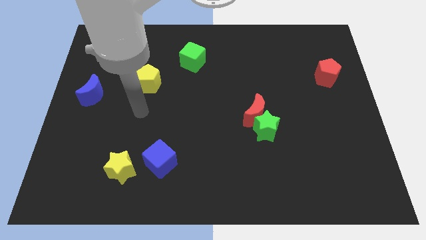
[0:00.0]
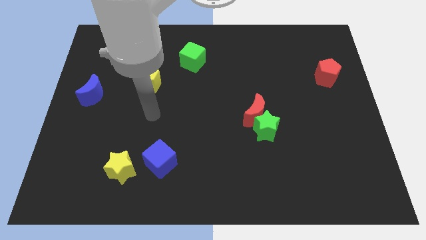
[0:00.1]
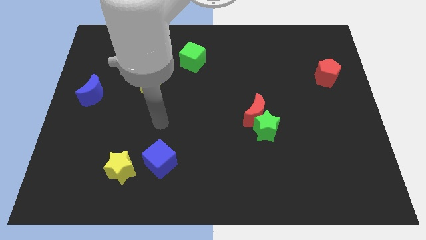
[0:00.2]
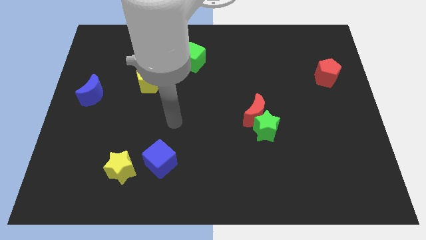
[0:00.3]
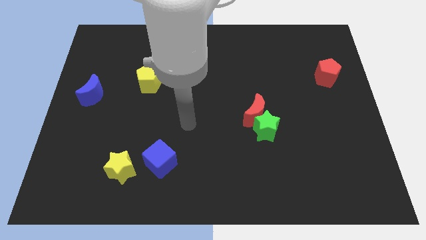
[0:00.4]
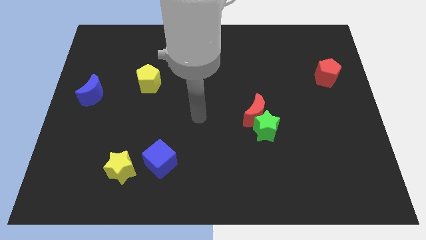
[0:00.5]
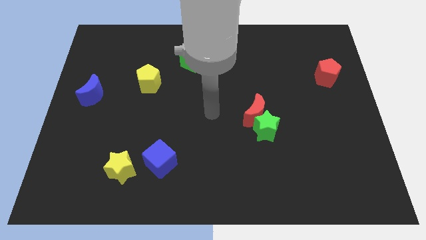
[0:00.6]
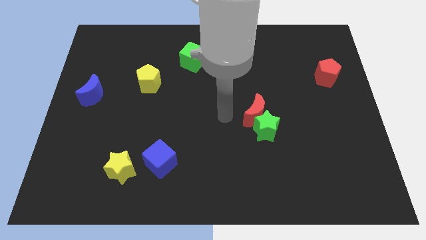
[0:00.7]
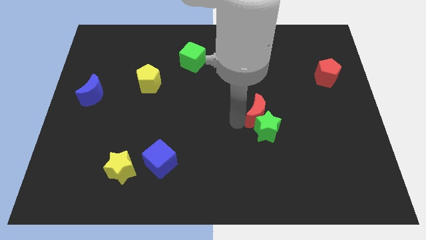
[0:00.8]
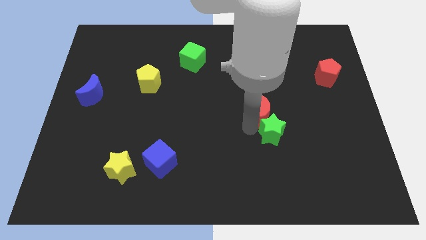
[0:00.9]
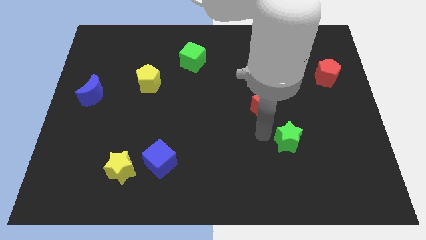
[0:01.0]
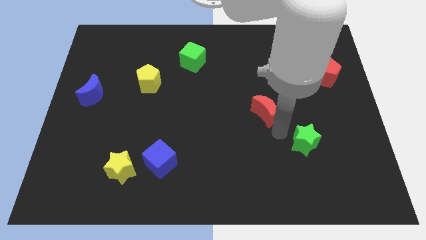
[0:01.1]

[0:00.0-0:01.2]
pull the red moon apart from the green star

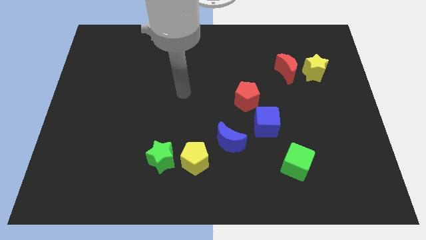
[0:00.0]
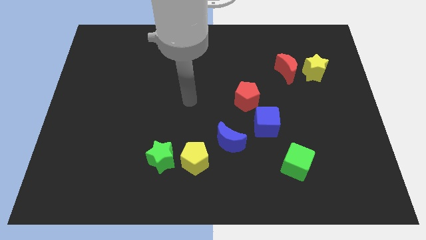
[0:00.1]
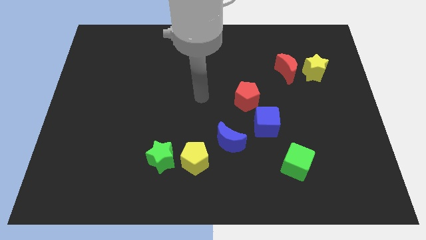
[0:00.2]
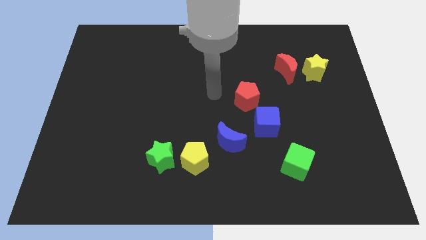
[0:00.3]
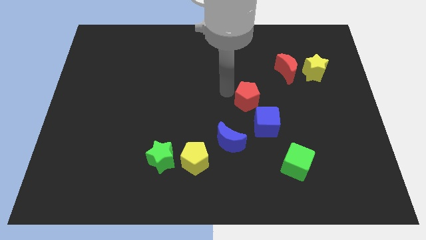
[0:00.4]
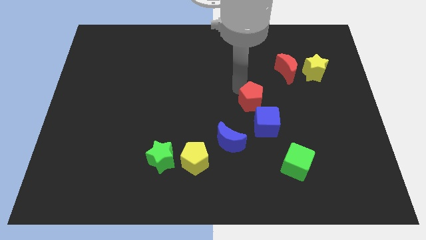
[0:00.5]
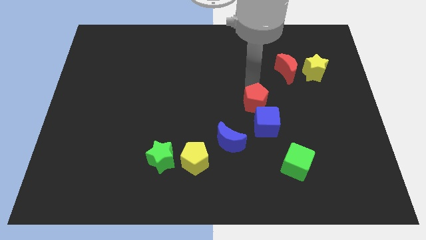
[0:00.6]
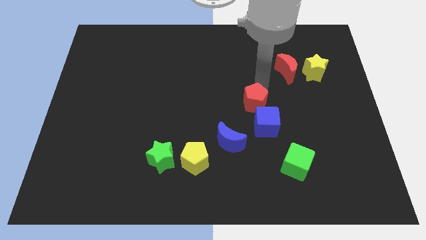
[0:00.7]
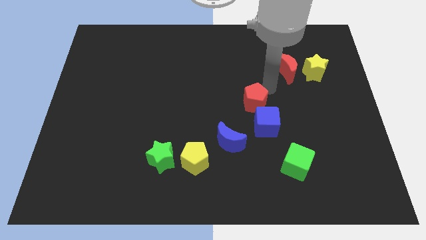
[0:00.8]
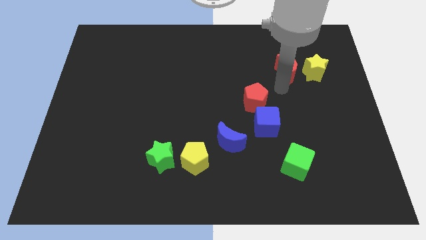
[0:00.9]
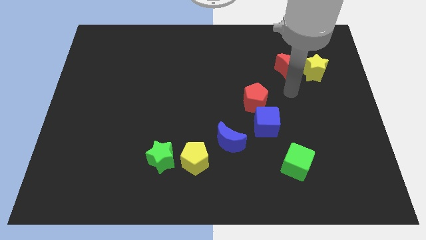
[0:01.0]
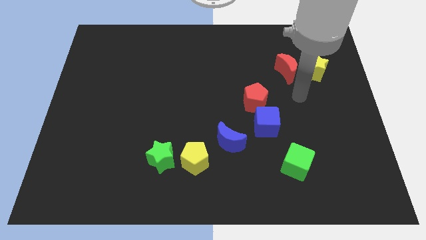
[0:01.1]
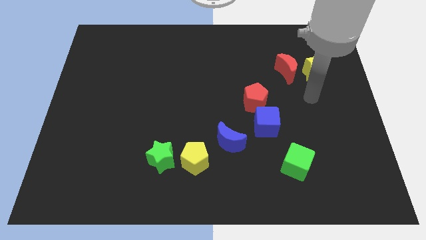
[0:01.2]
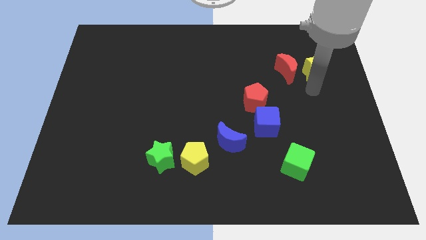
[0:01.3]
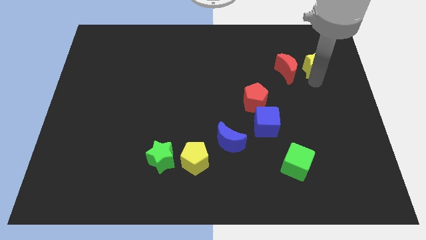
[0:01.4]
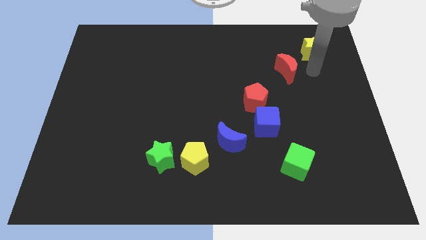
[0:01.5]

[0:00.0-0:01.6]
move the red moon away from the yellow star

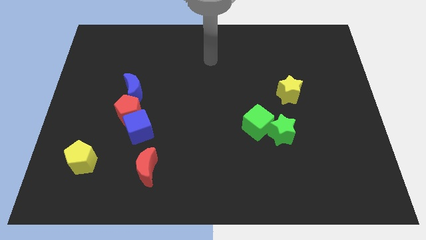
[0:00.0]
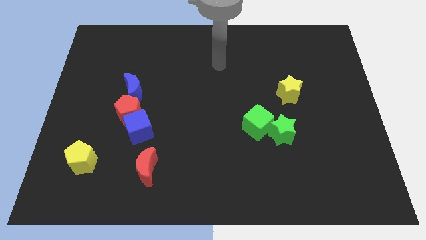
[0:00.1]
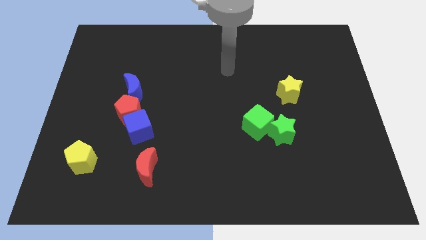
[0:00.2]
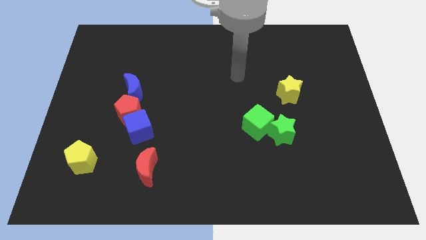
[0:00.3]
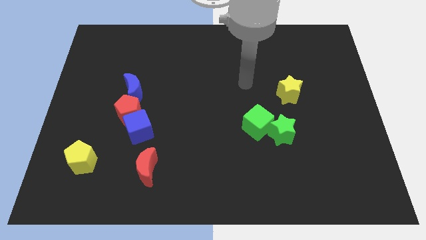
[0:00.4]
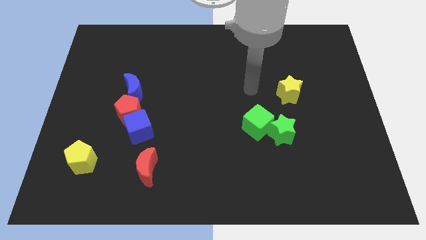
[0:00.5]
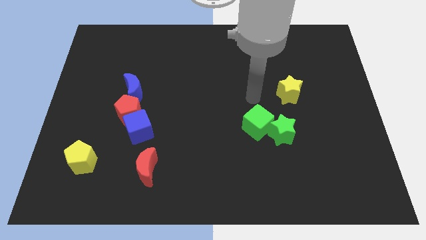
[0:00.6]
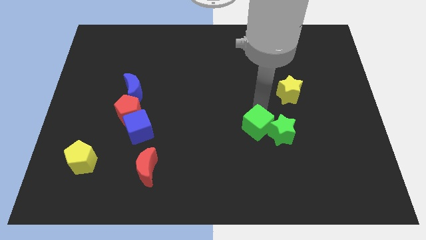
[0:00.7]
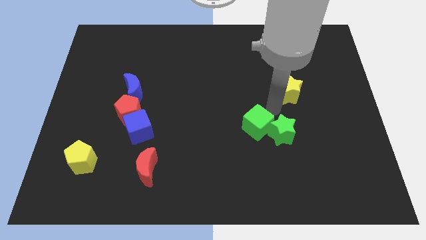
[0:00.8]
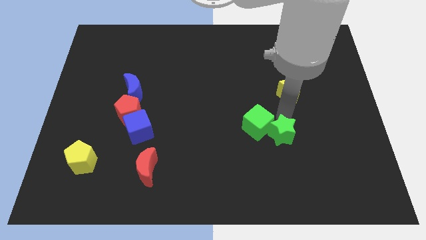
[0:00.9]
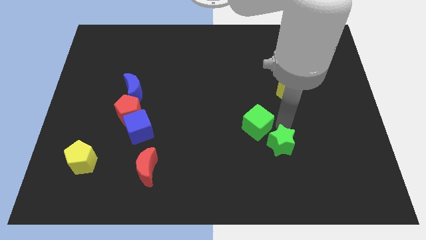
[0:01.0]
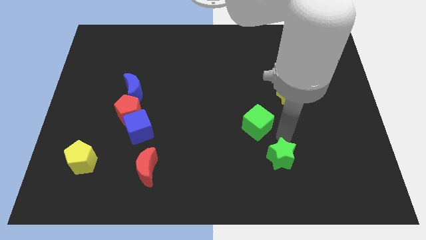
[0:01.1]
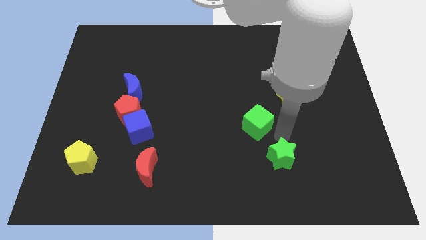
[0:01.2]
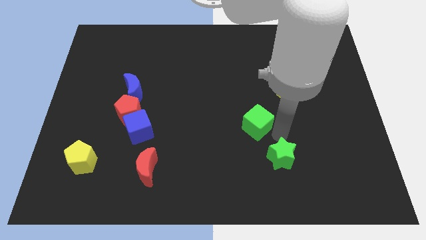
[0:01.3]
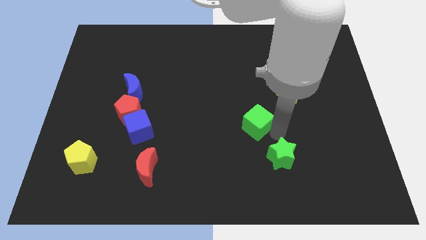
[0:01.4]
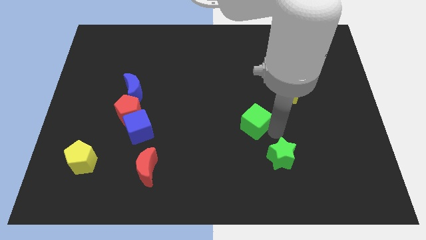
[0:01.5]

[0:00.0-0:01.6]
move the green cube away from the green star

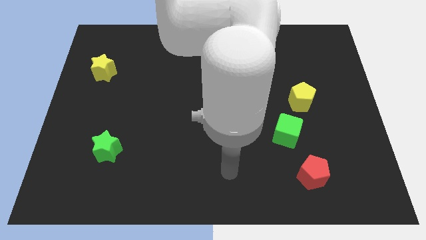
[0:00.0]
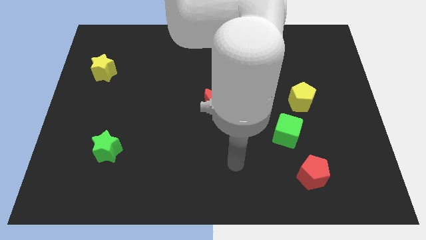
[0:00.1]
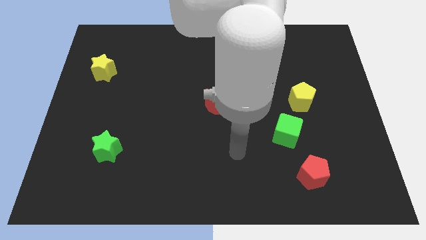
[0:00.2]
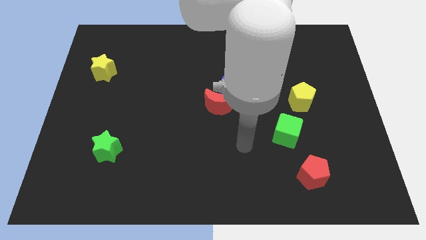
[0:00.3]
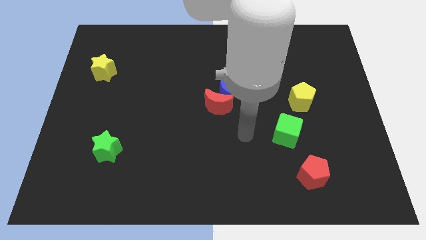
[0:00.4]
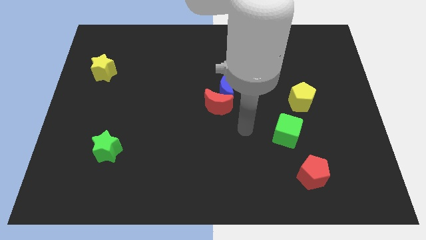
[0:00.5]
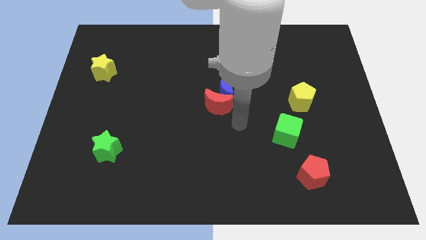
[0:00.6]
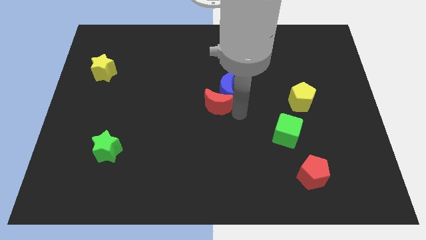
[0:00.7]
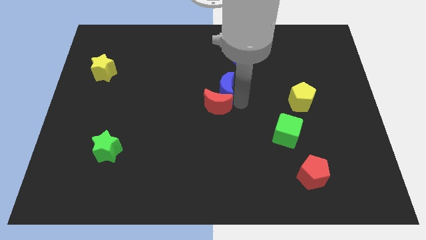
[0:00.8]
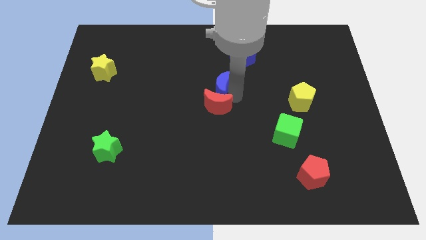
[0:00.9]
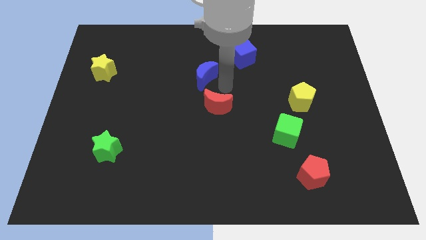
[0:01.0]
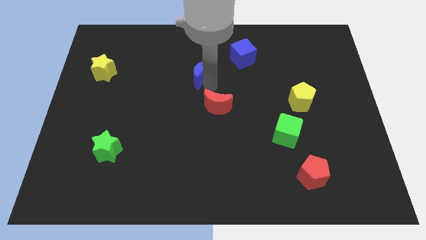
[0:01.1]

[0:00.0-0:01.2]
pull the red moon apart from the blue moon

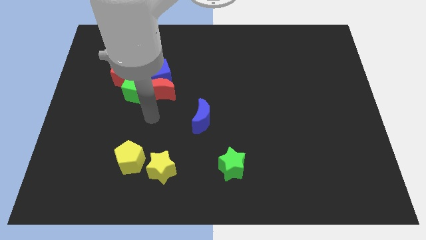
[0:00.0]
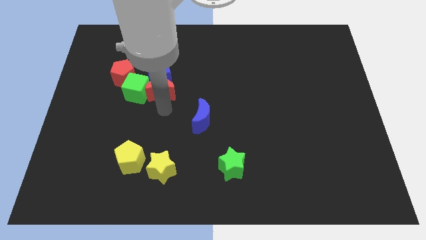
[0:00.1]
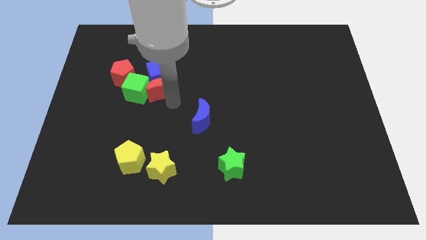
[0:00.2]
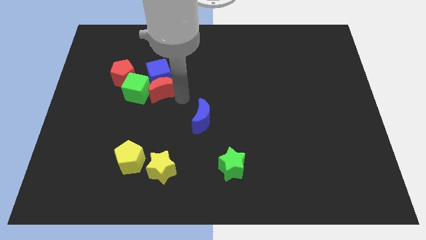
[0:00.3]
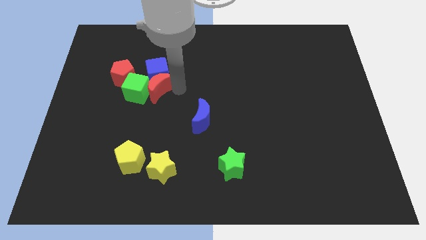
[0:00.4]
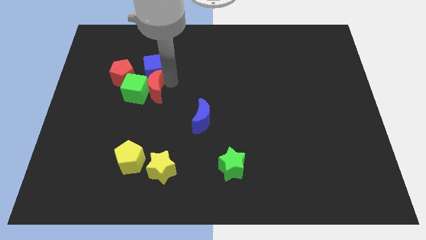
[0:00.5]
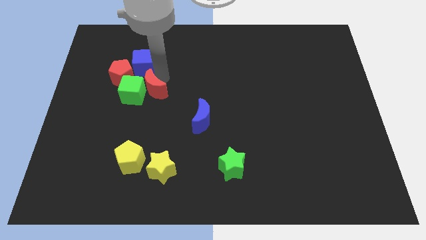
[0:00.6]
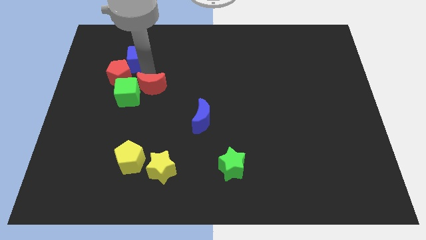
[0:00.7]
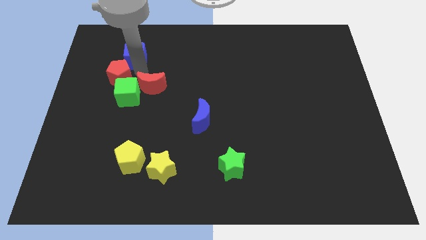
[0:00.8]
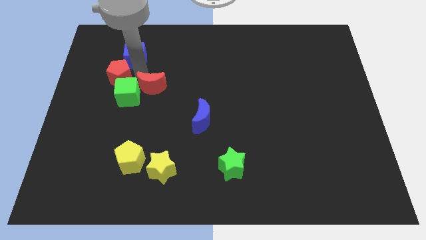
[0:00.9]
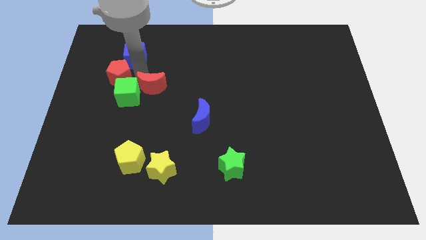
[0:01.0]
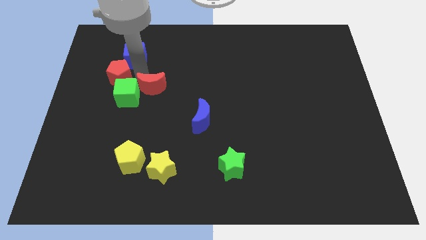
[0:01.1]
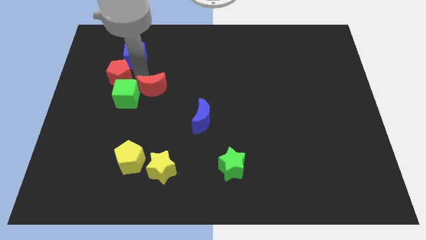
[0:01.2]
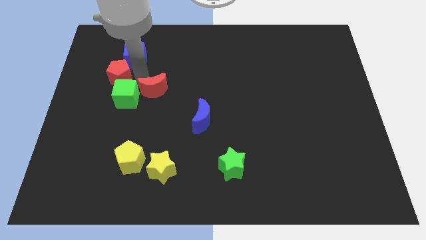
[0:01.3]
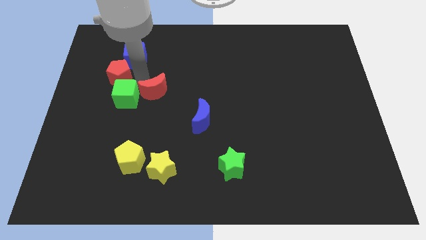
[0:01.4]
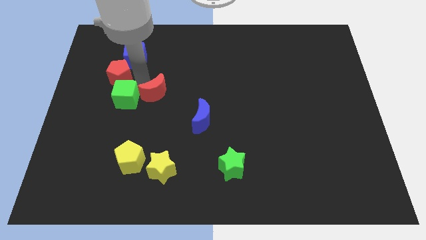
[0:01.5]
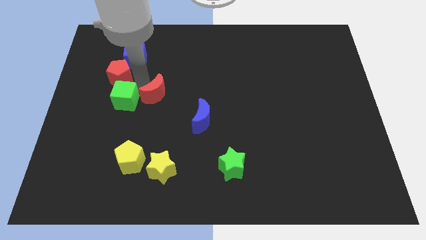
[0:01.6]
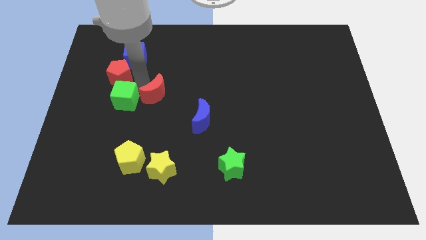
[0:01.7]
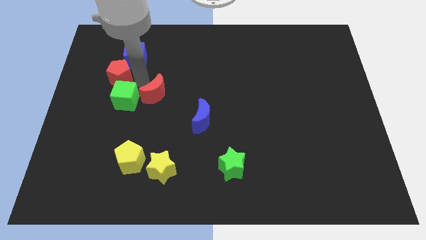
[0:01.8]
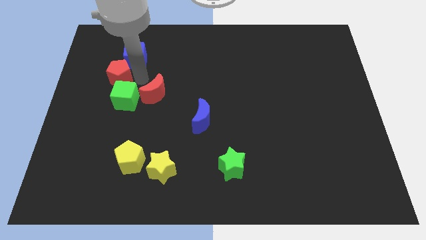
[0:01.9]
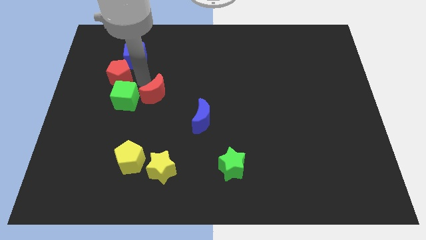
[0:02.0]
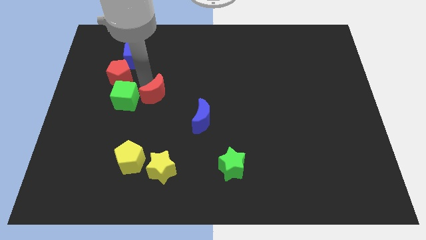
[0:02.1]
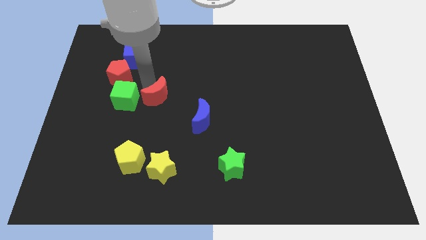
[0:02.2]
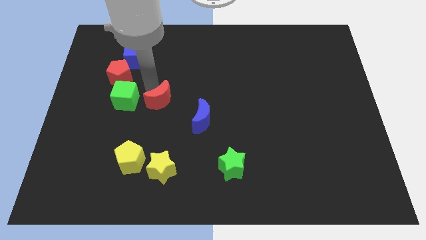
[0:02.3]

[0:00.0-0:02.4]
pull the red moon apart from the blue cube and green cube

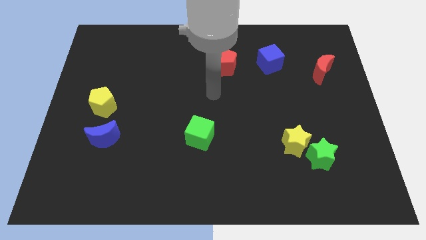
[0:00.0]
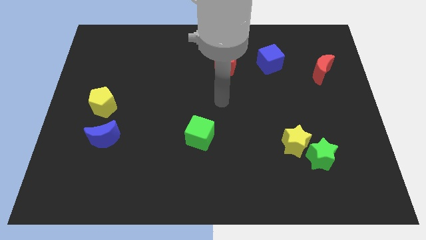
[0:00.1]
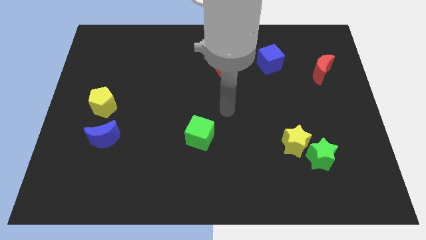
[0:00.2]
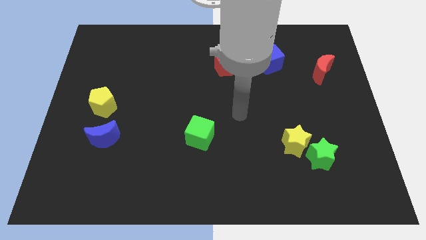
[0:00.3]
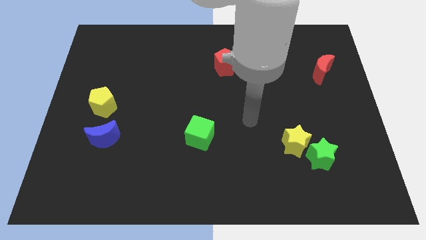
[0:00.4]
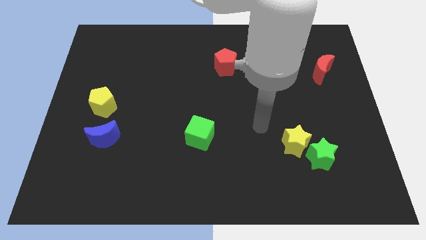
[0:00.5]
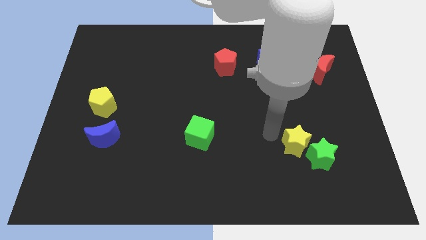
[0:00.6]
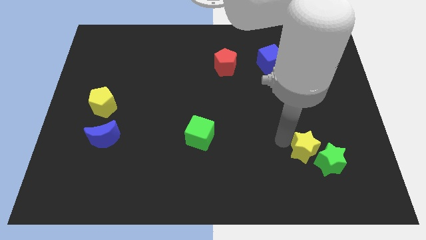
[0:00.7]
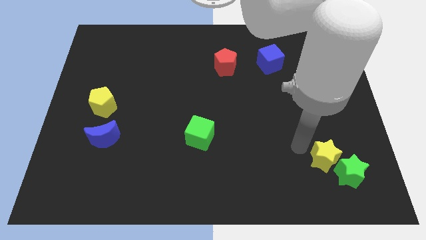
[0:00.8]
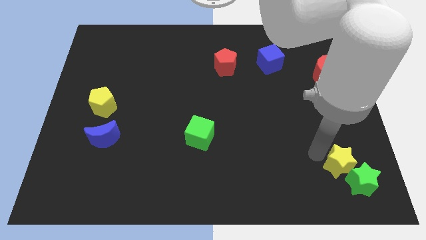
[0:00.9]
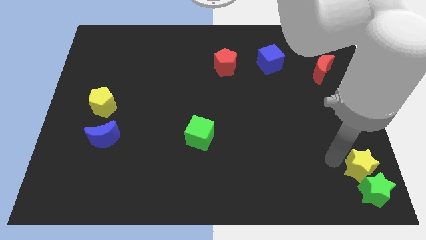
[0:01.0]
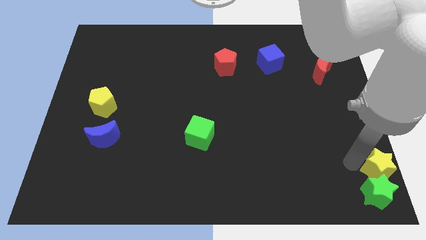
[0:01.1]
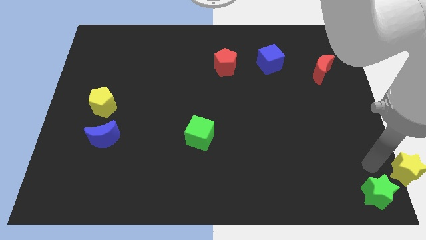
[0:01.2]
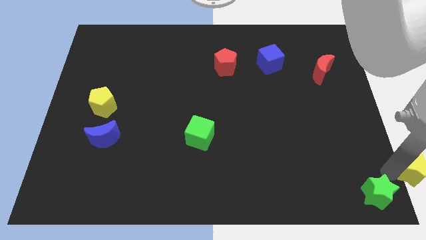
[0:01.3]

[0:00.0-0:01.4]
separate the green star from the yellow star
